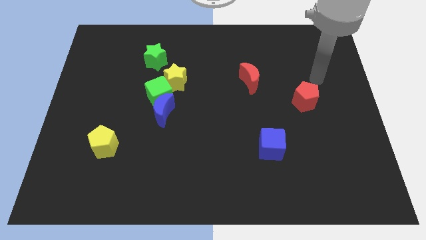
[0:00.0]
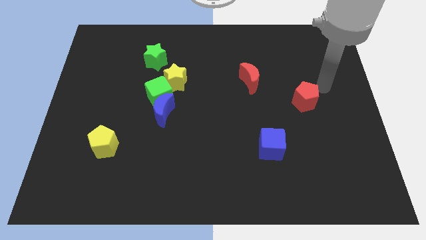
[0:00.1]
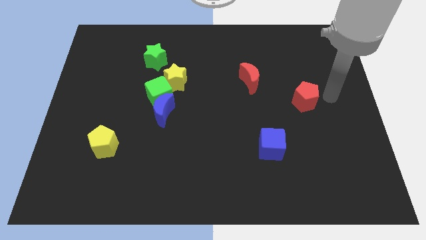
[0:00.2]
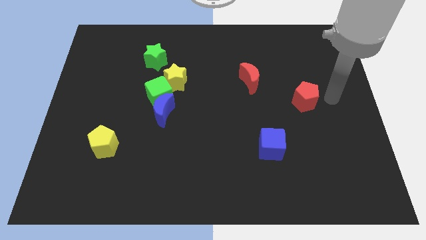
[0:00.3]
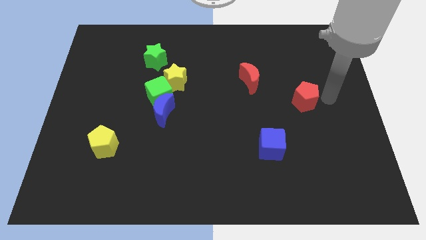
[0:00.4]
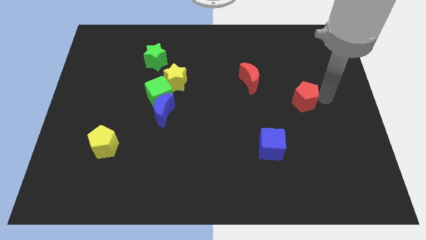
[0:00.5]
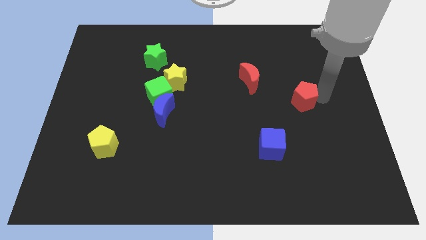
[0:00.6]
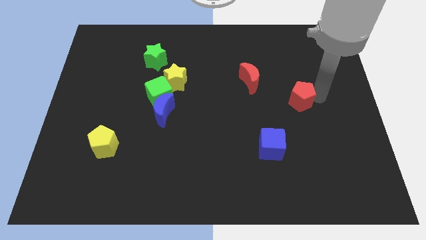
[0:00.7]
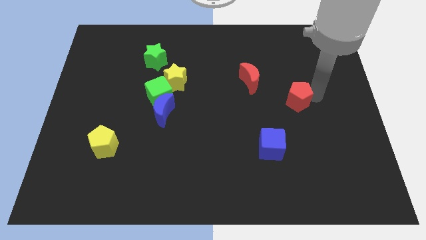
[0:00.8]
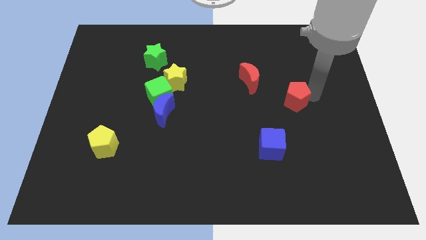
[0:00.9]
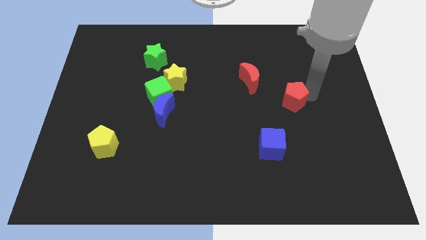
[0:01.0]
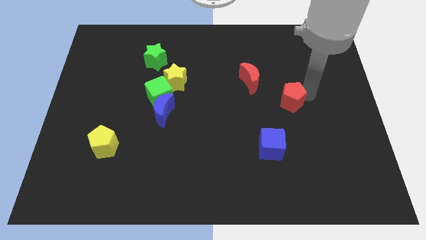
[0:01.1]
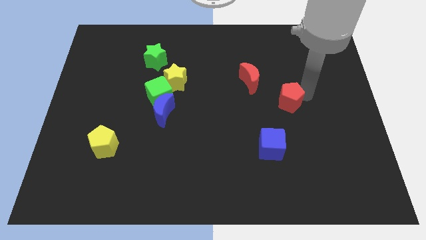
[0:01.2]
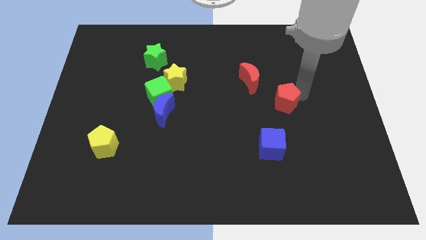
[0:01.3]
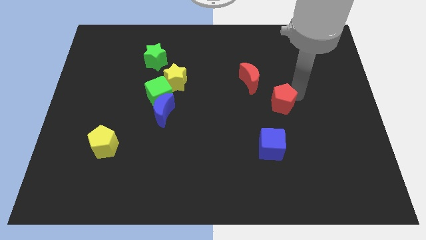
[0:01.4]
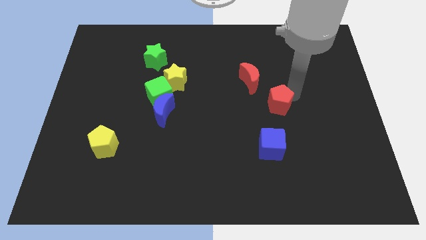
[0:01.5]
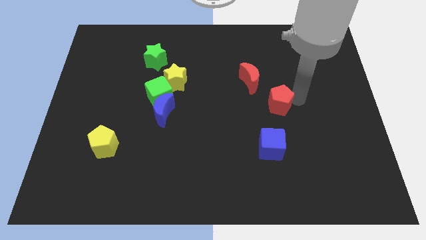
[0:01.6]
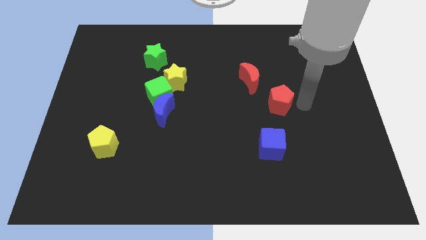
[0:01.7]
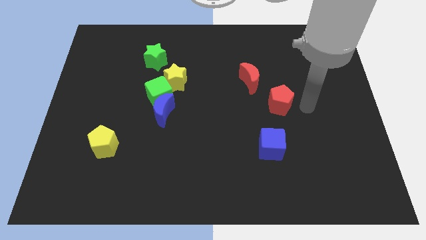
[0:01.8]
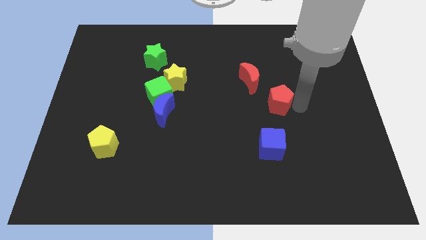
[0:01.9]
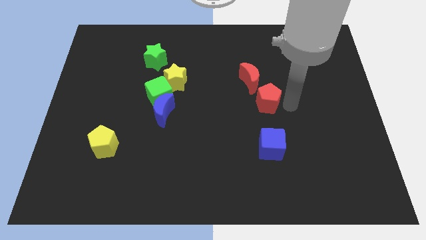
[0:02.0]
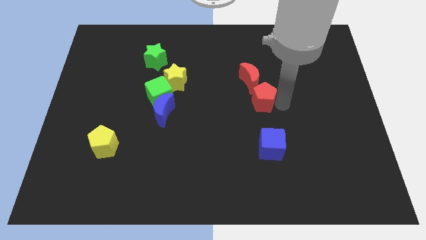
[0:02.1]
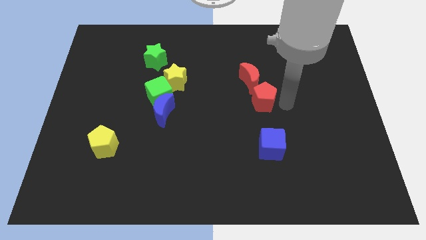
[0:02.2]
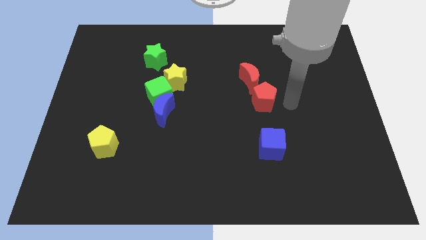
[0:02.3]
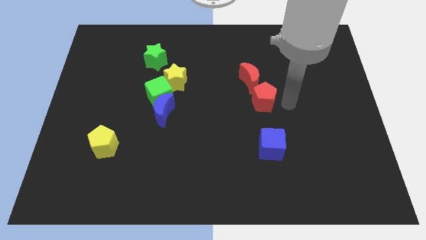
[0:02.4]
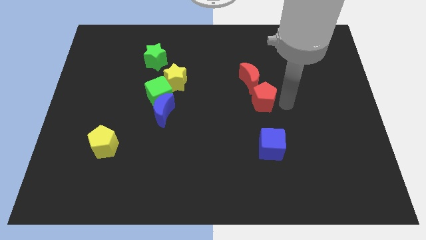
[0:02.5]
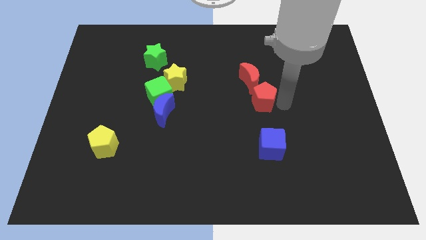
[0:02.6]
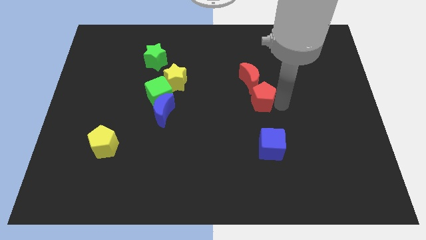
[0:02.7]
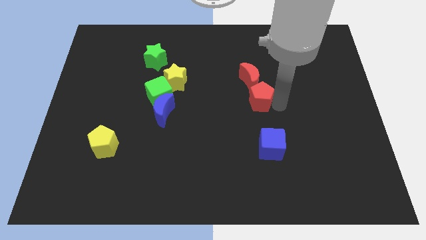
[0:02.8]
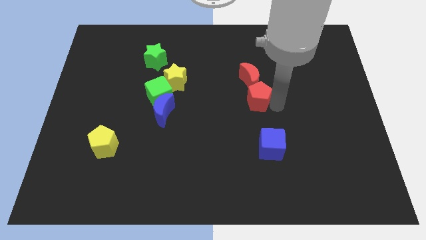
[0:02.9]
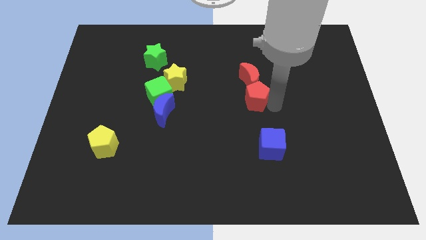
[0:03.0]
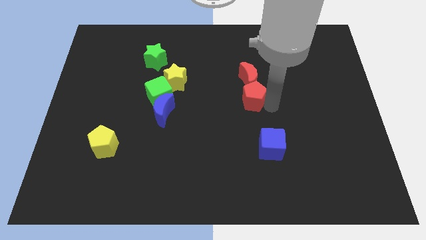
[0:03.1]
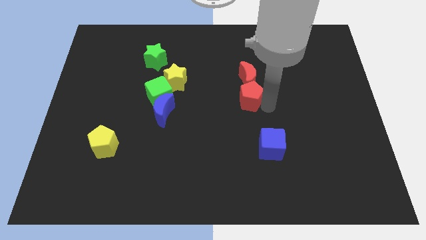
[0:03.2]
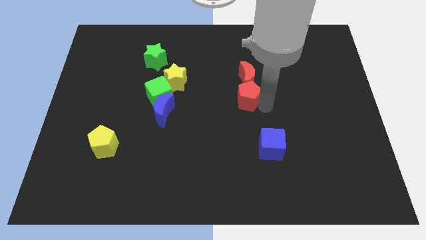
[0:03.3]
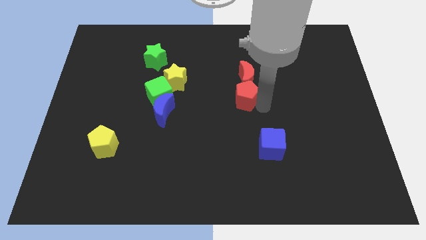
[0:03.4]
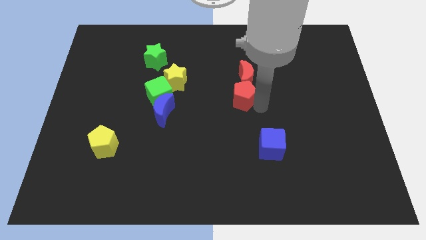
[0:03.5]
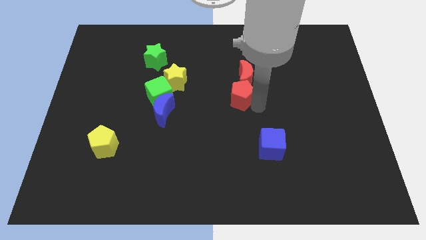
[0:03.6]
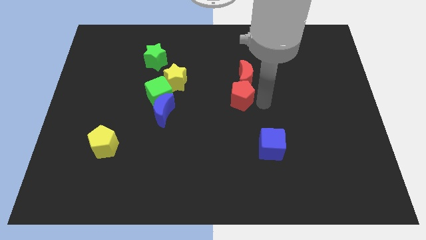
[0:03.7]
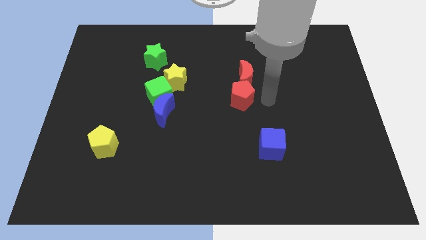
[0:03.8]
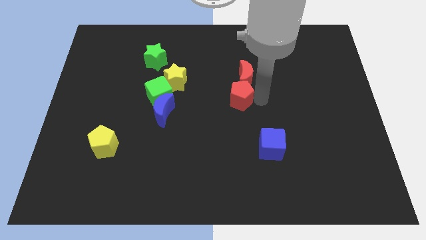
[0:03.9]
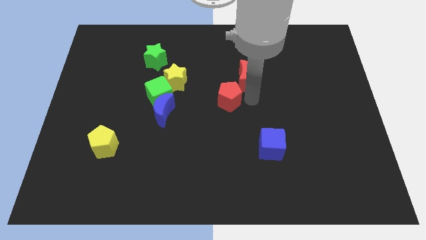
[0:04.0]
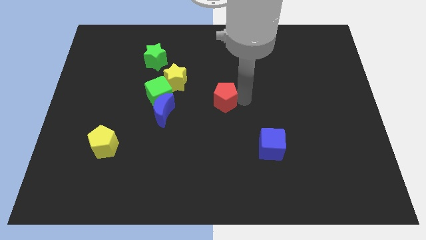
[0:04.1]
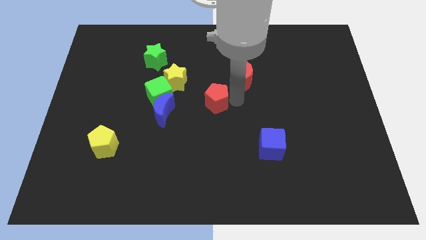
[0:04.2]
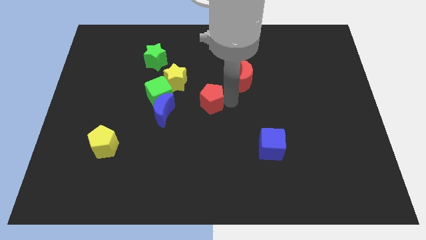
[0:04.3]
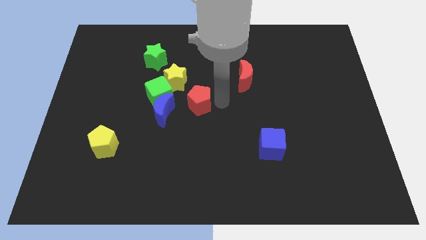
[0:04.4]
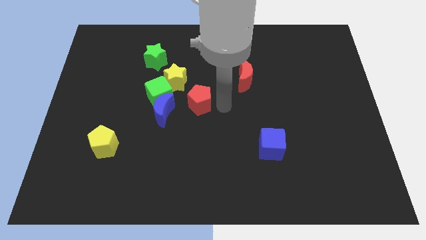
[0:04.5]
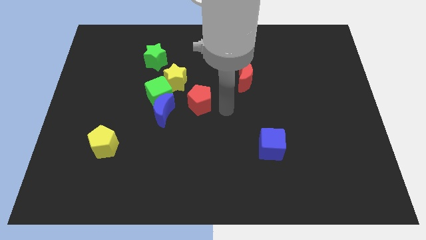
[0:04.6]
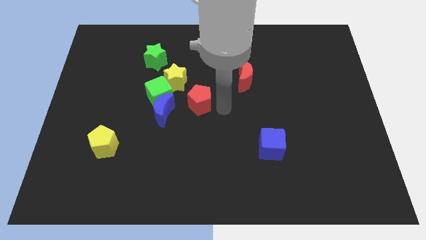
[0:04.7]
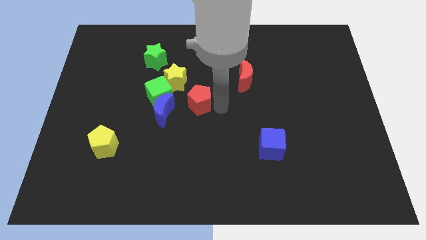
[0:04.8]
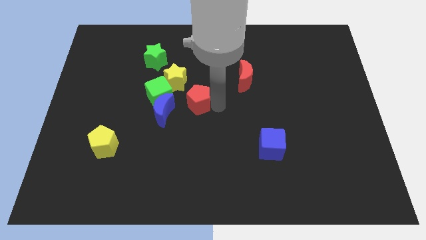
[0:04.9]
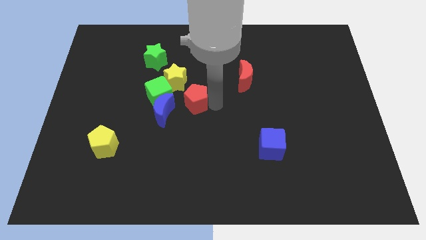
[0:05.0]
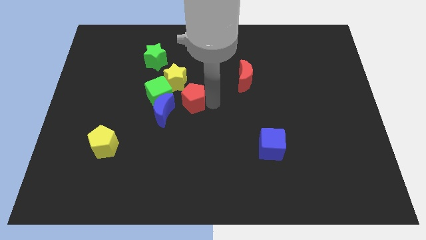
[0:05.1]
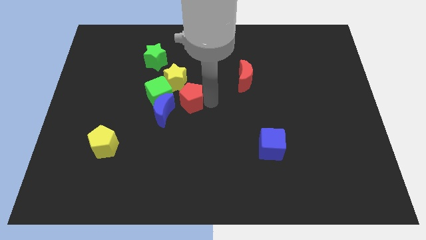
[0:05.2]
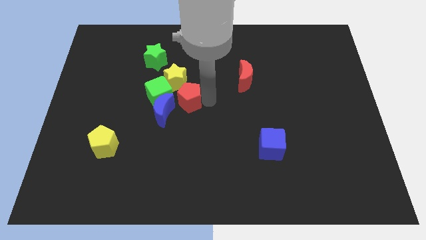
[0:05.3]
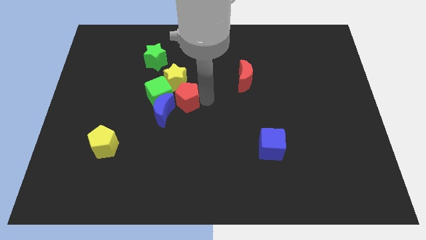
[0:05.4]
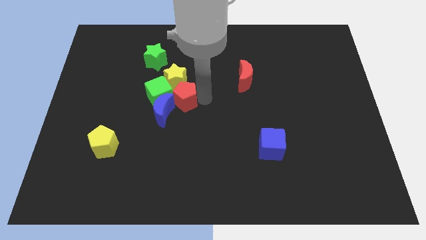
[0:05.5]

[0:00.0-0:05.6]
put the red pentagon close to the green cube

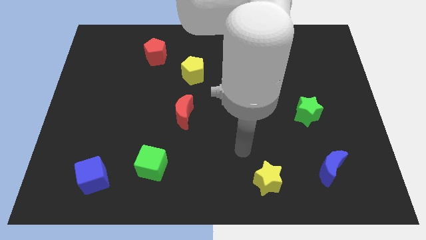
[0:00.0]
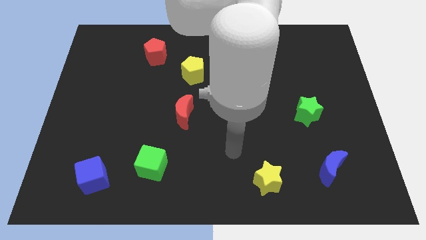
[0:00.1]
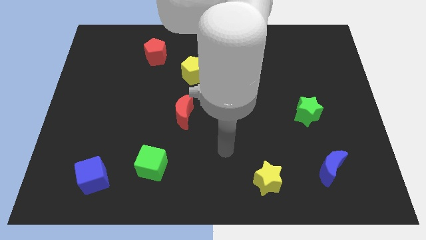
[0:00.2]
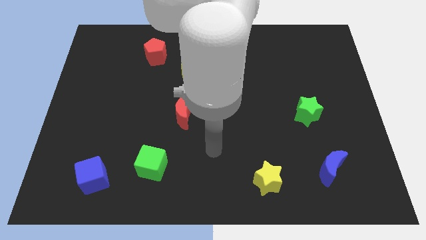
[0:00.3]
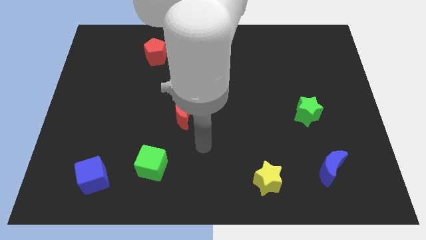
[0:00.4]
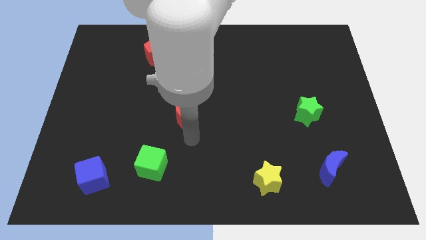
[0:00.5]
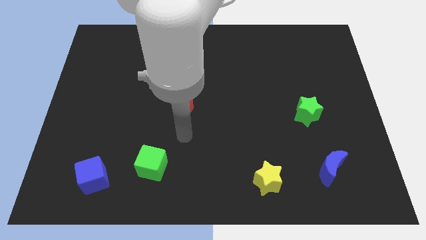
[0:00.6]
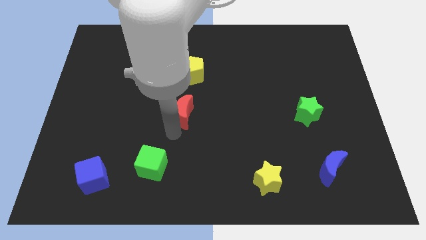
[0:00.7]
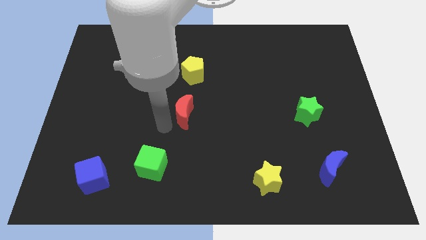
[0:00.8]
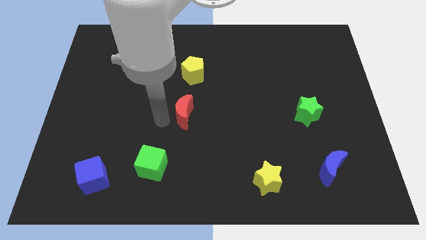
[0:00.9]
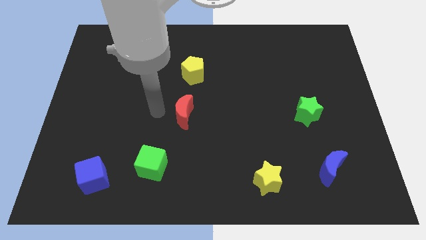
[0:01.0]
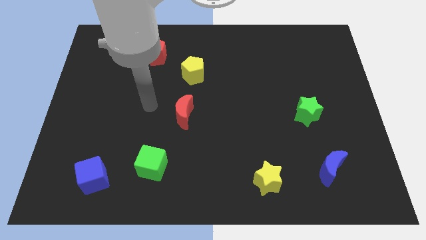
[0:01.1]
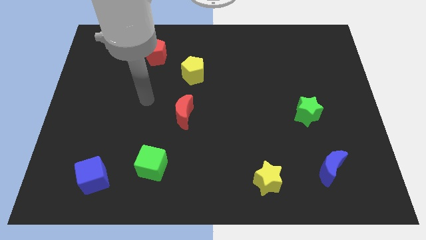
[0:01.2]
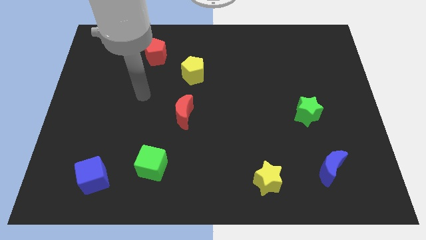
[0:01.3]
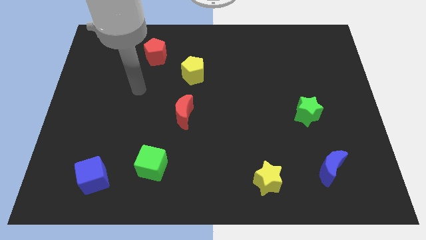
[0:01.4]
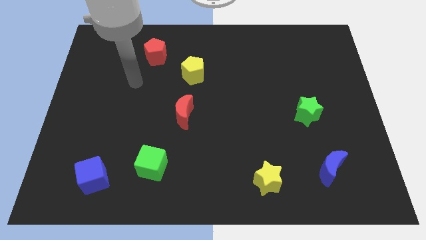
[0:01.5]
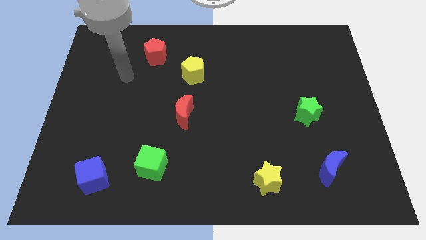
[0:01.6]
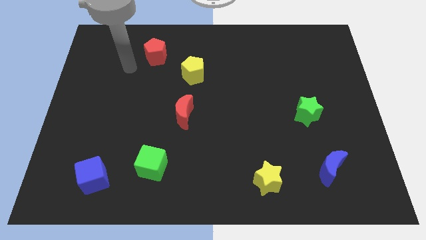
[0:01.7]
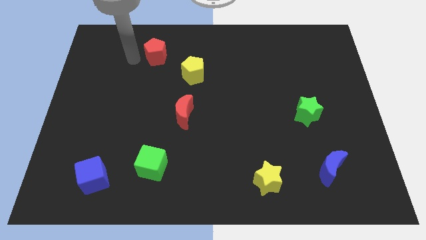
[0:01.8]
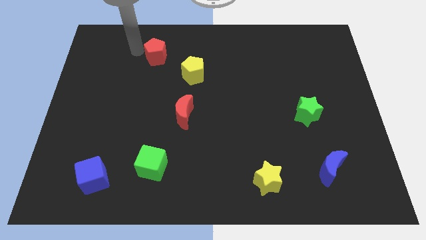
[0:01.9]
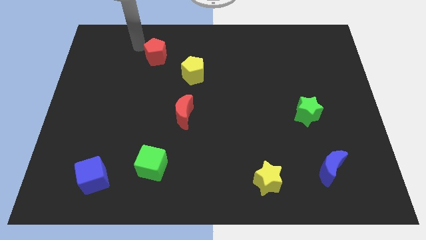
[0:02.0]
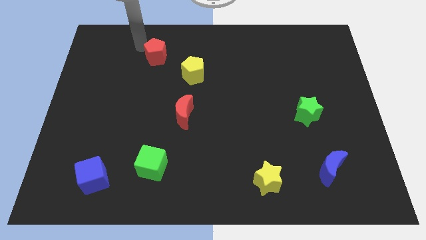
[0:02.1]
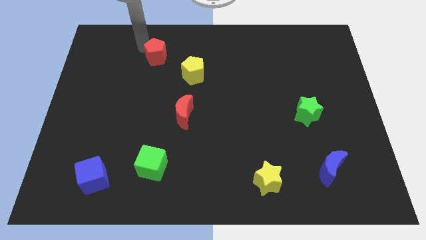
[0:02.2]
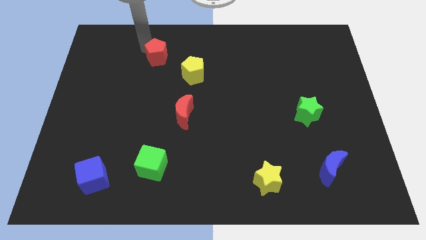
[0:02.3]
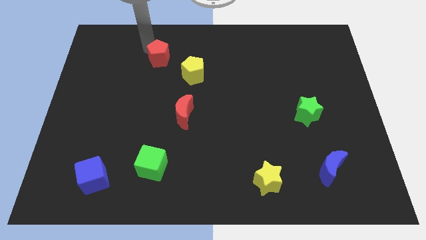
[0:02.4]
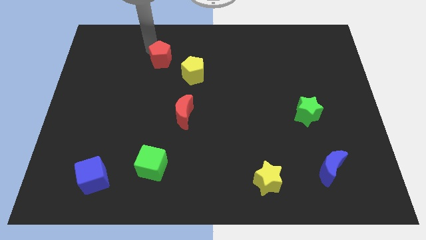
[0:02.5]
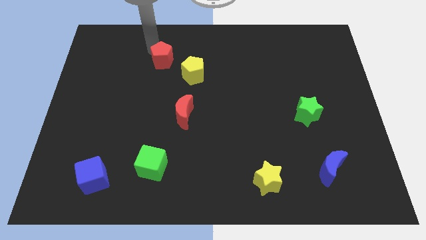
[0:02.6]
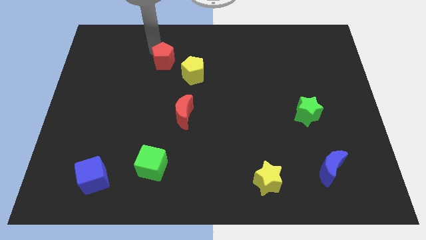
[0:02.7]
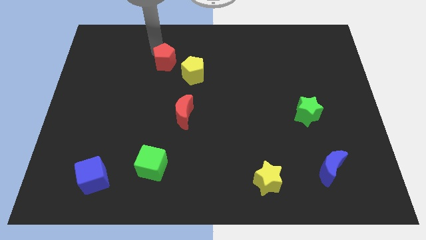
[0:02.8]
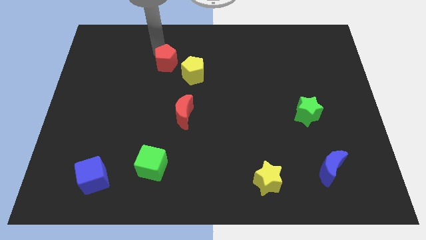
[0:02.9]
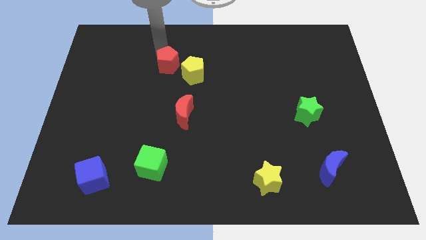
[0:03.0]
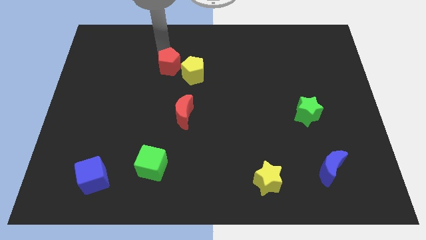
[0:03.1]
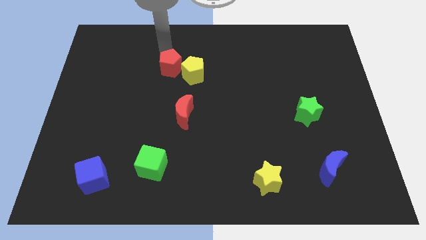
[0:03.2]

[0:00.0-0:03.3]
slide the red pentagon next to the yellow pentagon
